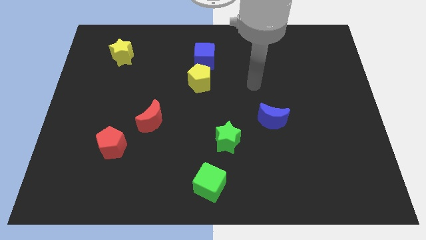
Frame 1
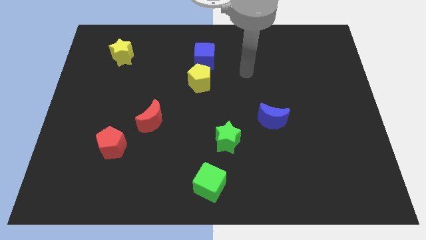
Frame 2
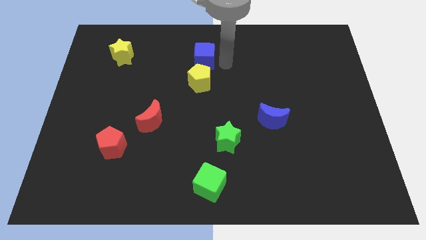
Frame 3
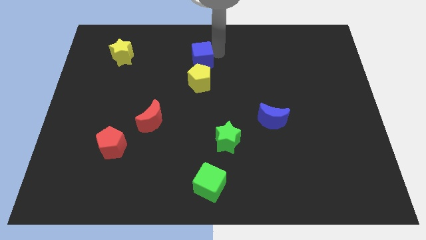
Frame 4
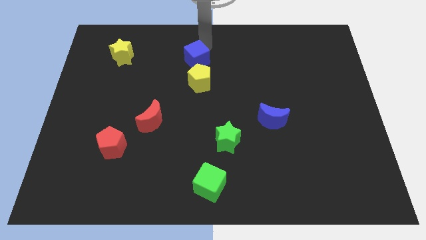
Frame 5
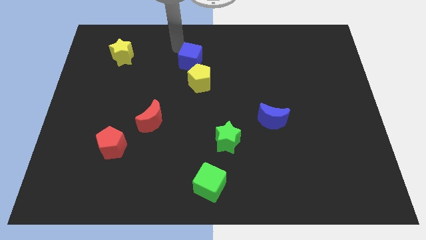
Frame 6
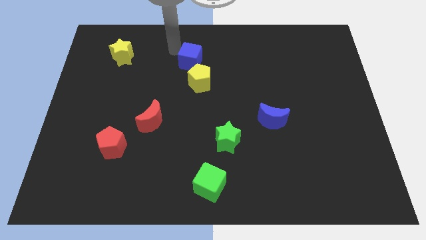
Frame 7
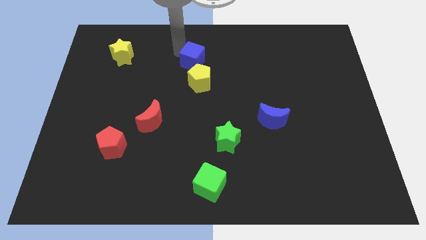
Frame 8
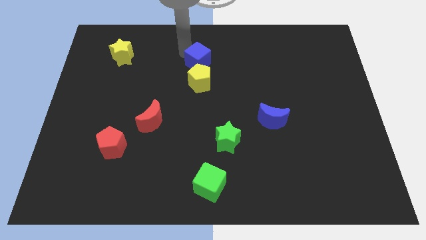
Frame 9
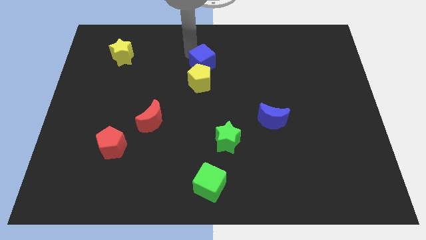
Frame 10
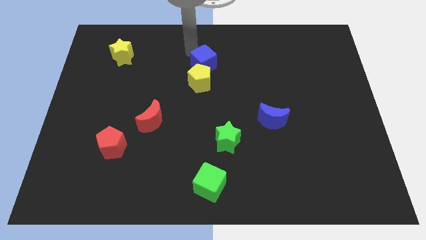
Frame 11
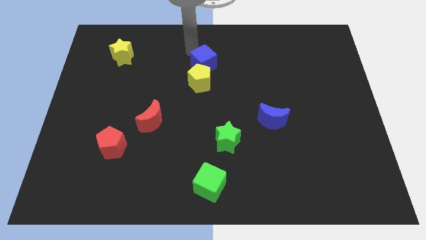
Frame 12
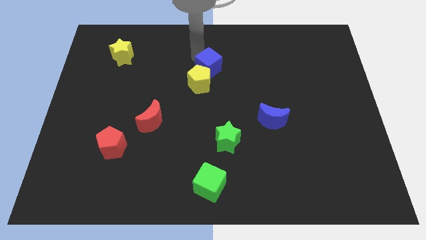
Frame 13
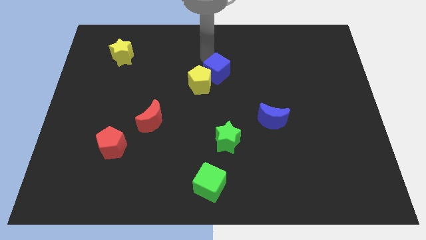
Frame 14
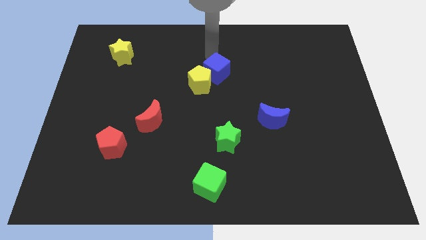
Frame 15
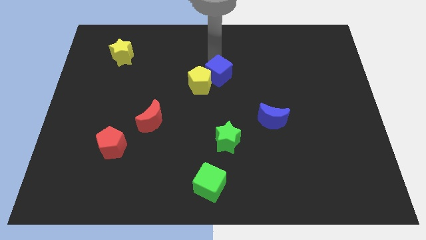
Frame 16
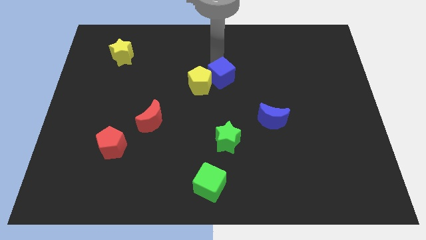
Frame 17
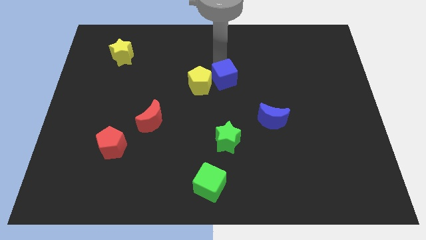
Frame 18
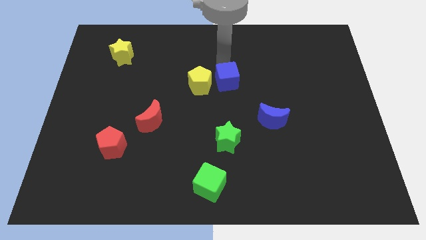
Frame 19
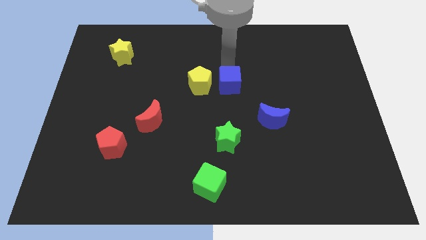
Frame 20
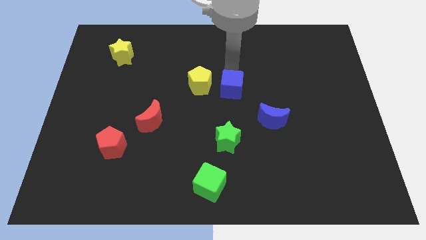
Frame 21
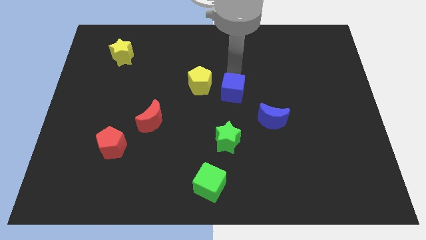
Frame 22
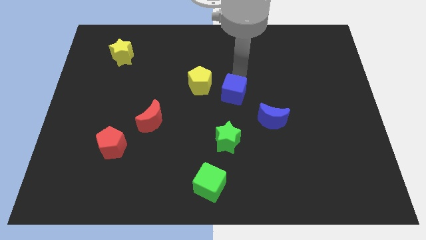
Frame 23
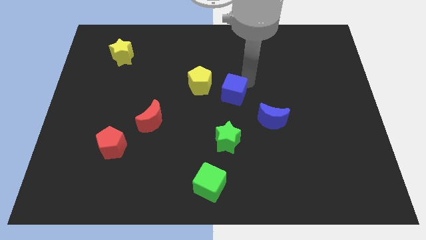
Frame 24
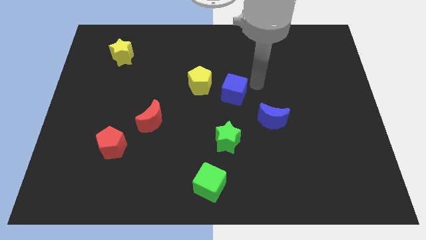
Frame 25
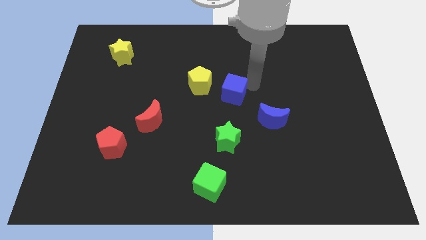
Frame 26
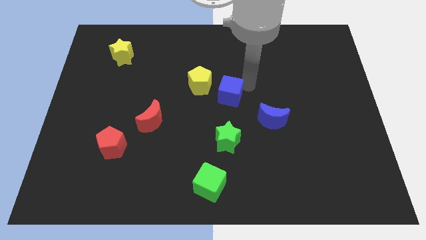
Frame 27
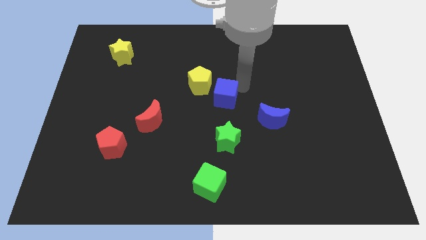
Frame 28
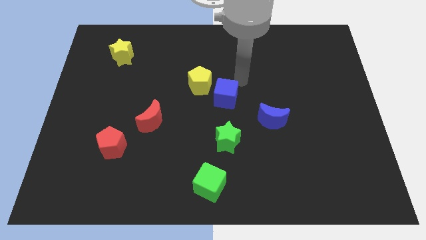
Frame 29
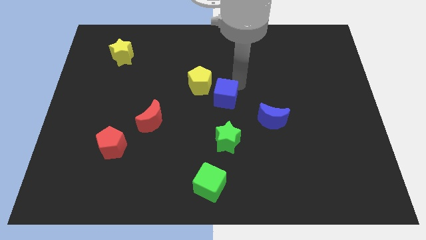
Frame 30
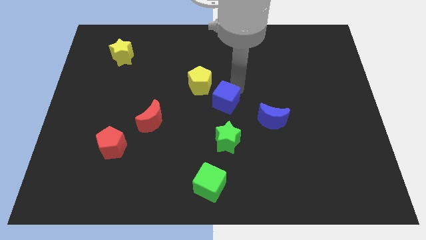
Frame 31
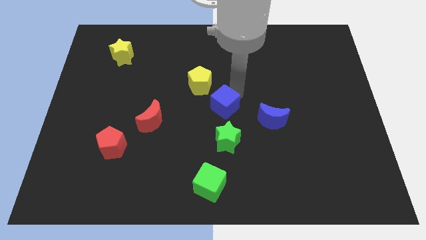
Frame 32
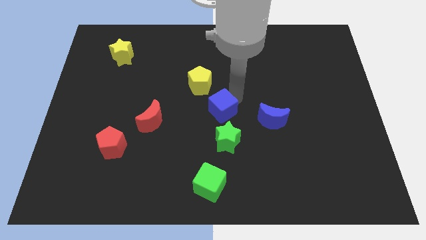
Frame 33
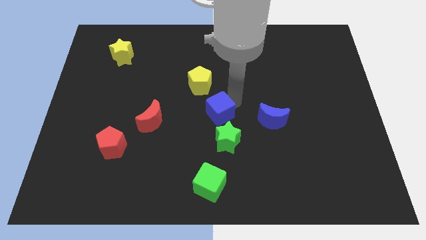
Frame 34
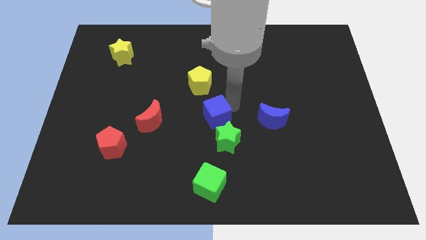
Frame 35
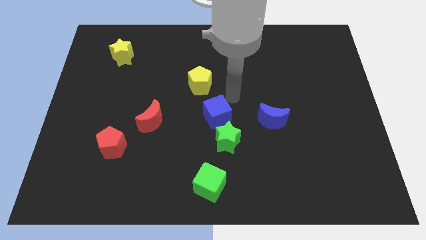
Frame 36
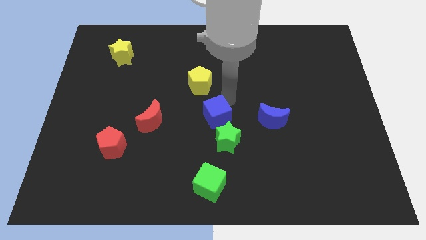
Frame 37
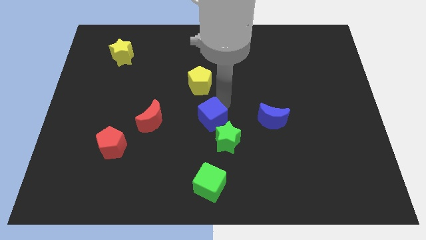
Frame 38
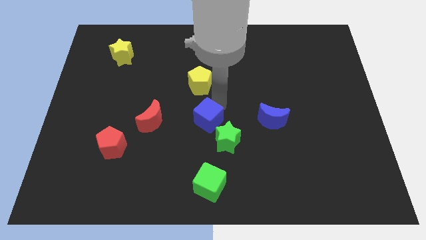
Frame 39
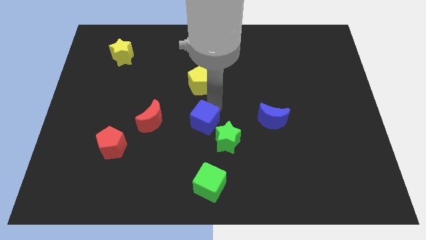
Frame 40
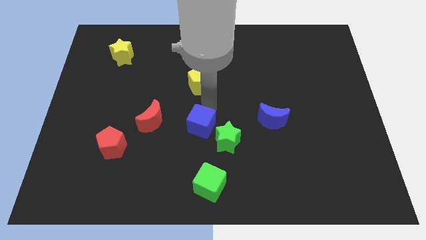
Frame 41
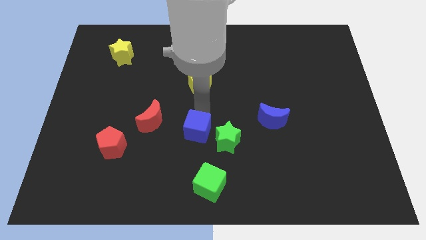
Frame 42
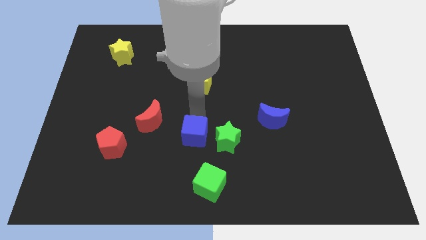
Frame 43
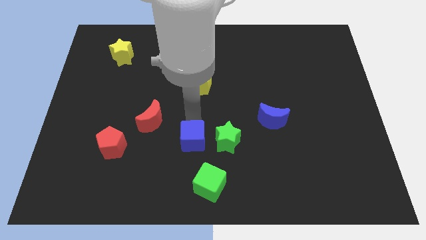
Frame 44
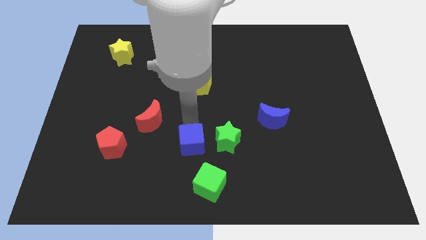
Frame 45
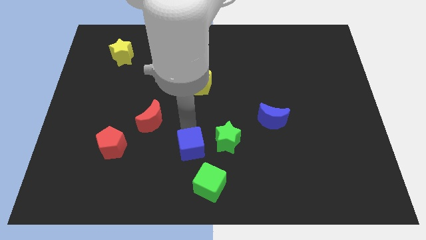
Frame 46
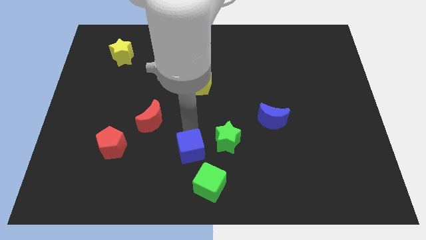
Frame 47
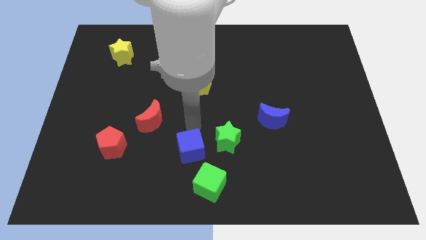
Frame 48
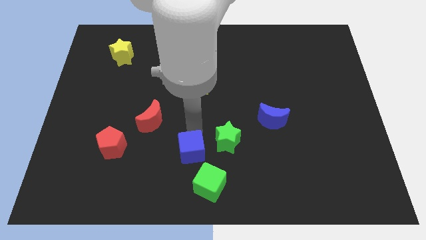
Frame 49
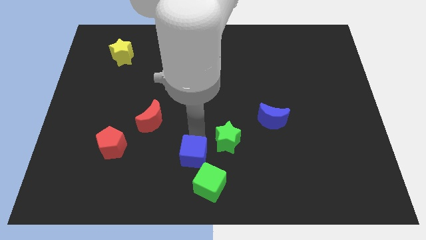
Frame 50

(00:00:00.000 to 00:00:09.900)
put the blue cube to the bottom

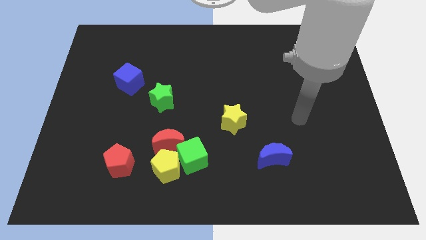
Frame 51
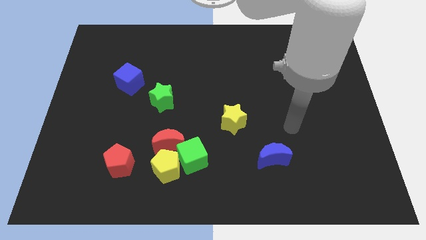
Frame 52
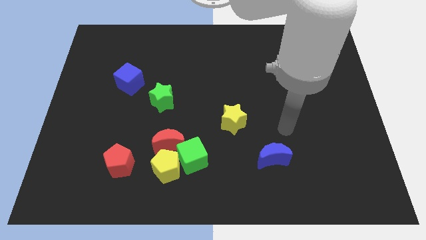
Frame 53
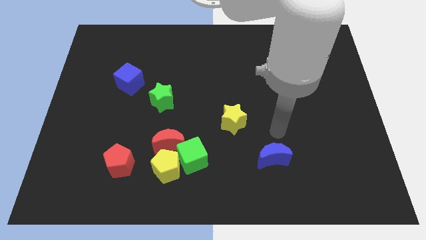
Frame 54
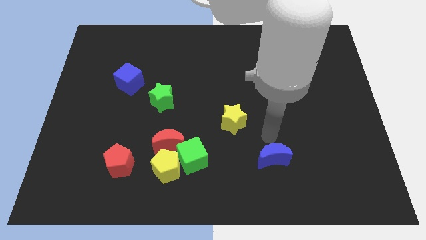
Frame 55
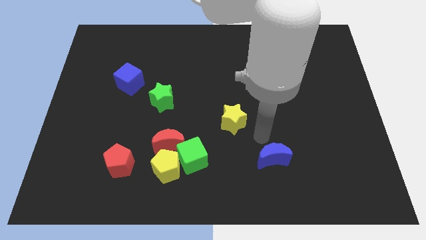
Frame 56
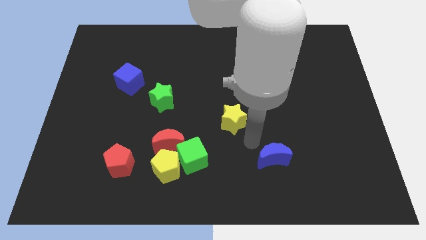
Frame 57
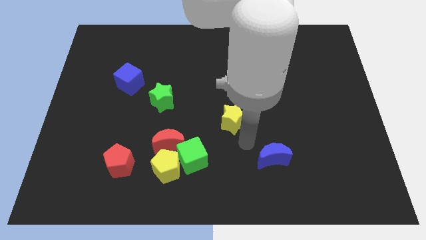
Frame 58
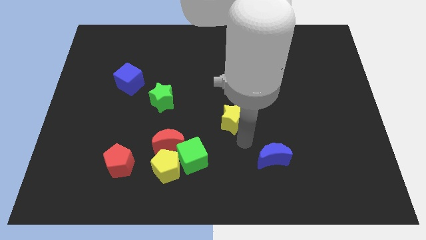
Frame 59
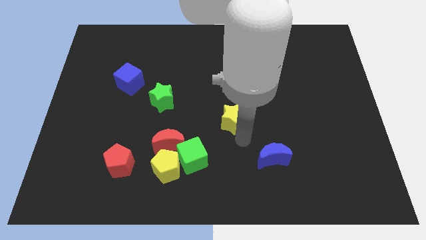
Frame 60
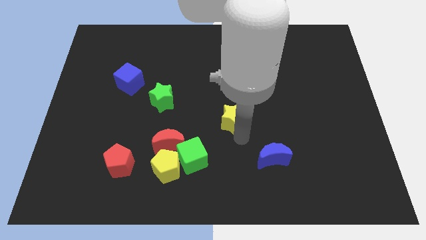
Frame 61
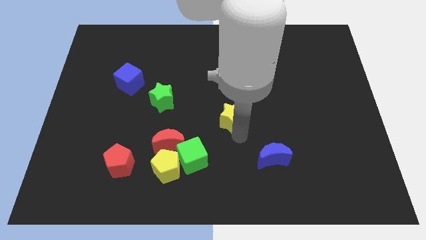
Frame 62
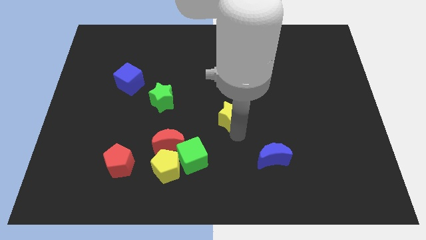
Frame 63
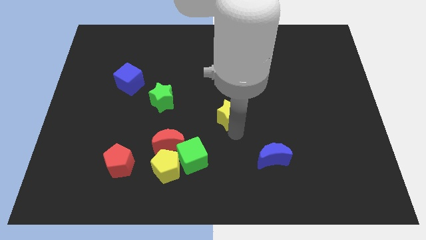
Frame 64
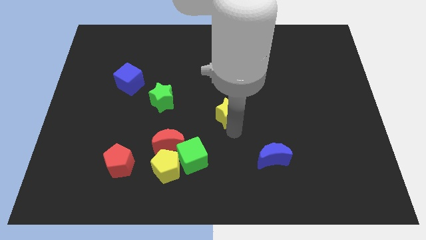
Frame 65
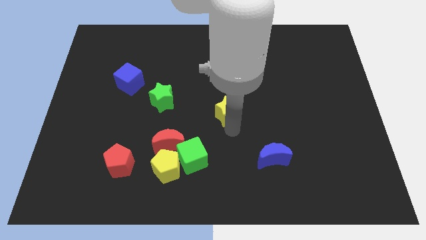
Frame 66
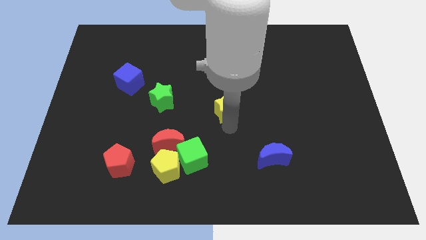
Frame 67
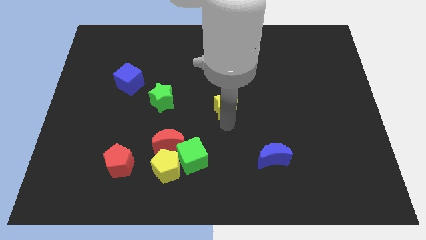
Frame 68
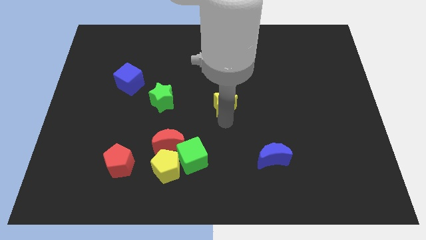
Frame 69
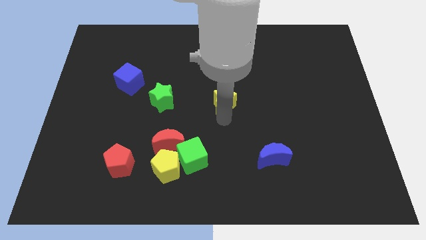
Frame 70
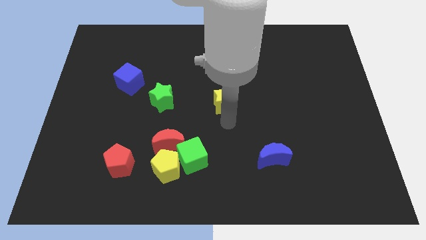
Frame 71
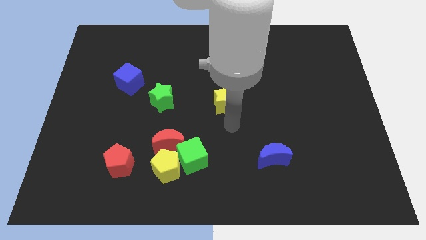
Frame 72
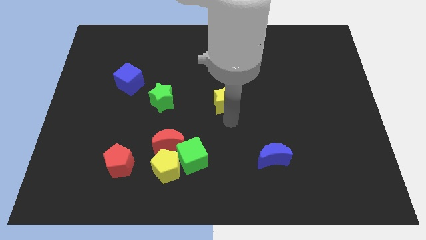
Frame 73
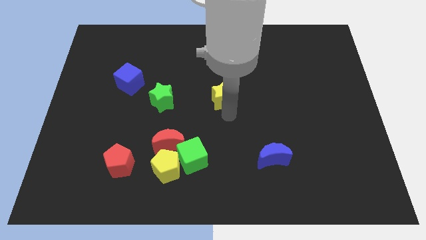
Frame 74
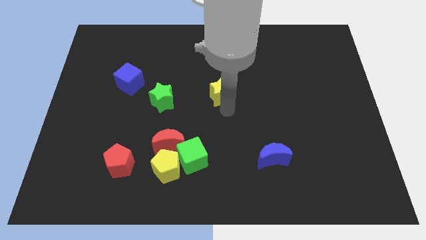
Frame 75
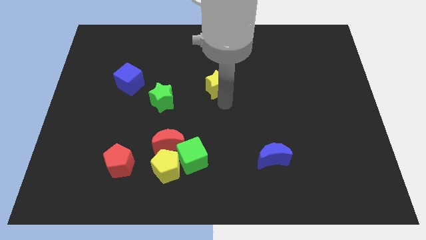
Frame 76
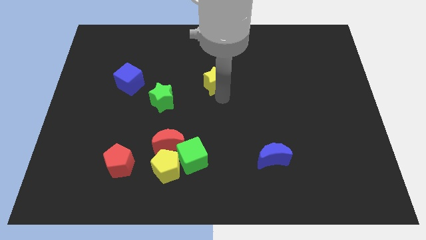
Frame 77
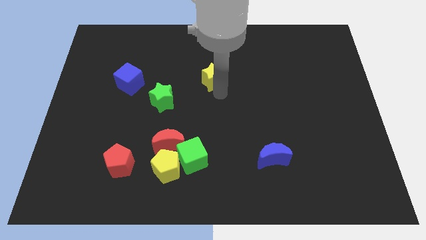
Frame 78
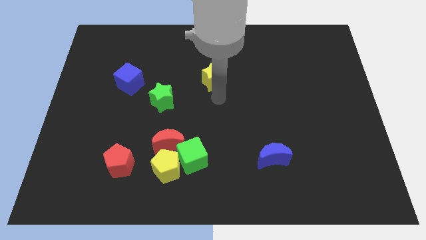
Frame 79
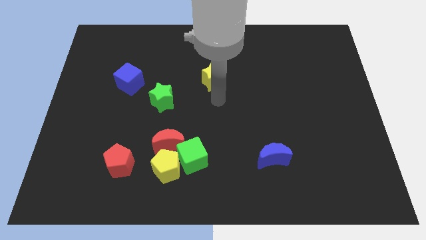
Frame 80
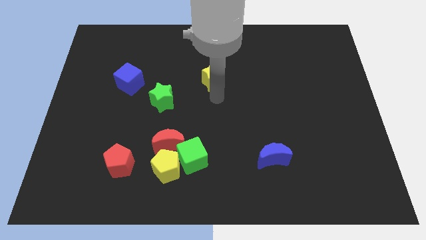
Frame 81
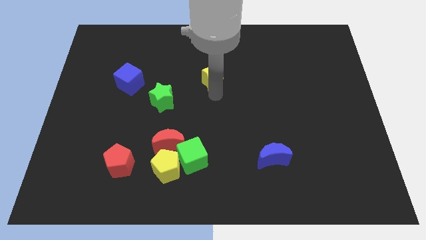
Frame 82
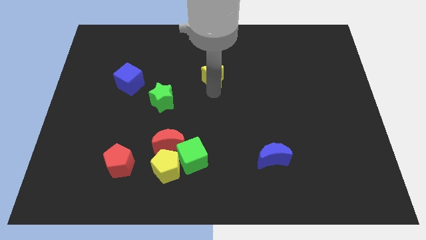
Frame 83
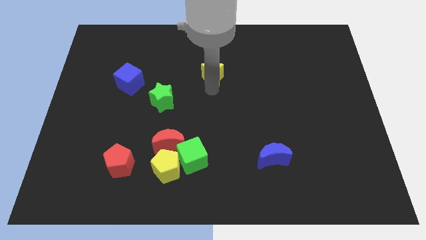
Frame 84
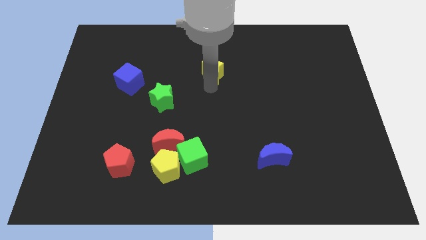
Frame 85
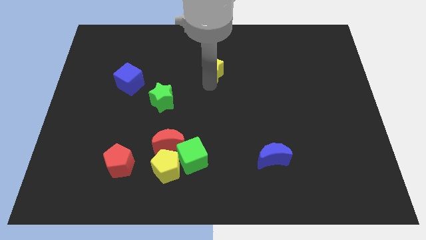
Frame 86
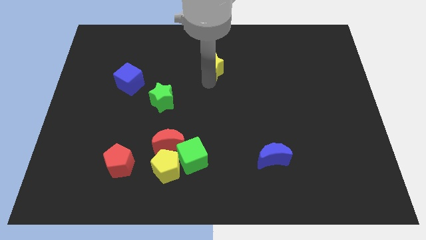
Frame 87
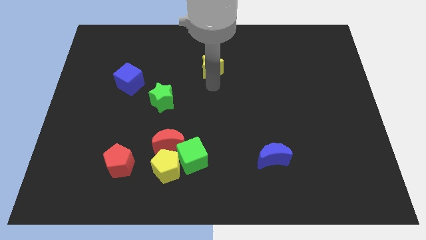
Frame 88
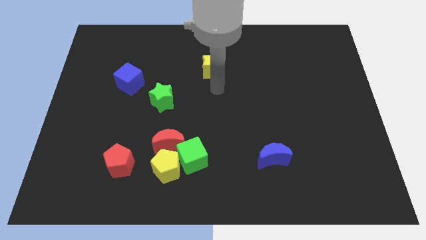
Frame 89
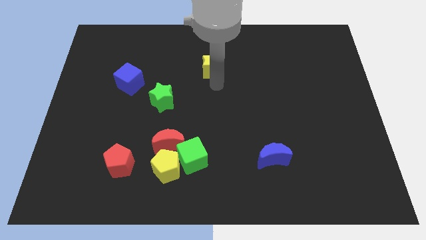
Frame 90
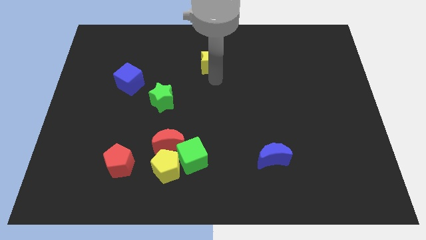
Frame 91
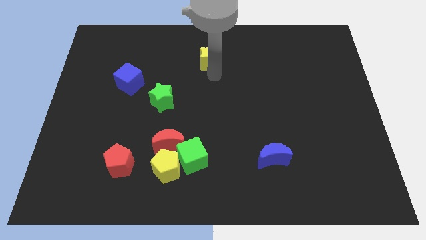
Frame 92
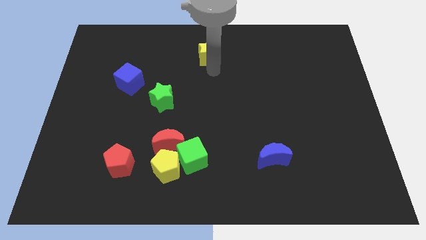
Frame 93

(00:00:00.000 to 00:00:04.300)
put the yellow star to the top
